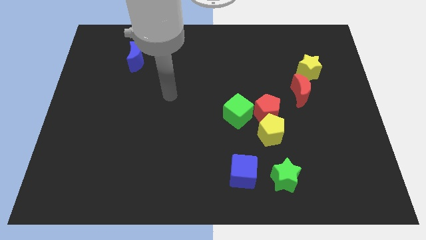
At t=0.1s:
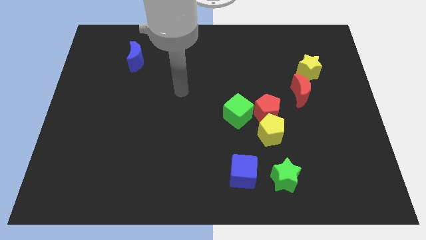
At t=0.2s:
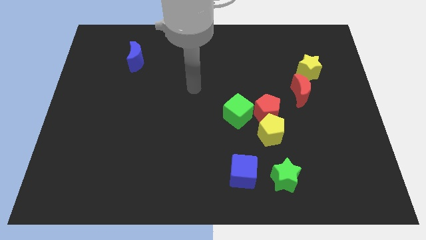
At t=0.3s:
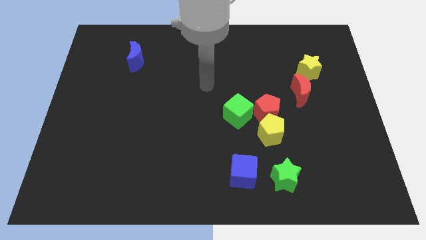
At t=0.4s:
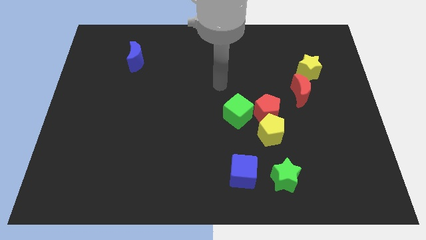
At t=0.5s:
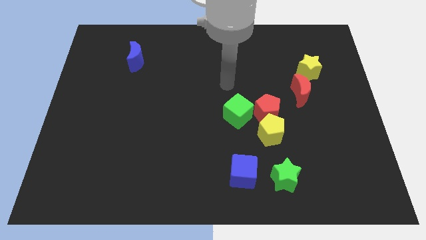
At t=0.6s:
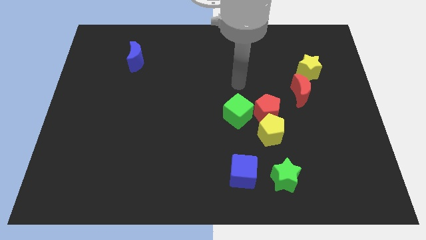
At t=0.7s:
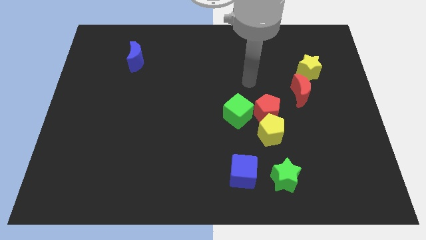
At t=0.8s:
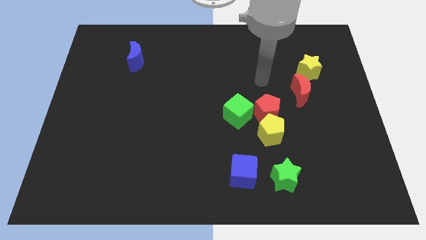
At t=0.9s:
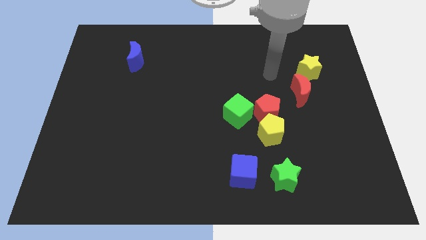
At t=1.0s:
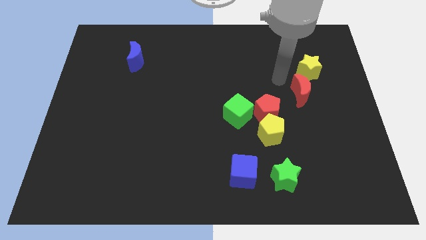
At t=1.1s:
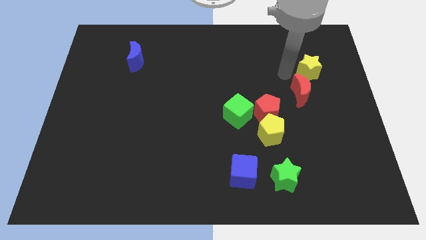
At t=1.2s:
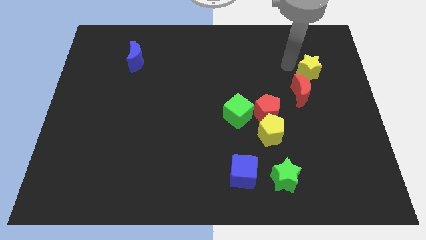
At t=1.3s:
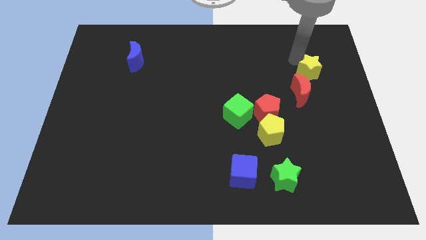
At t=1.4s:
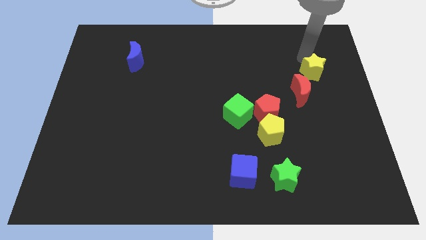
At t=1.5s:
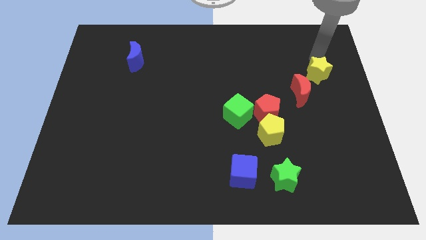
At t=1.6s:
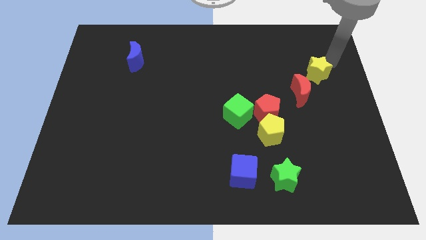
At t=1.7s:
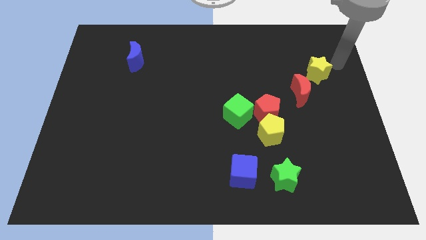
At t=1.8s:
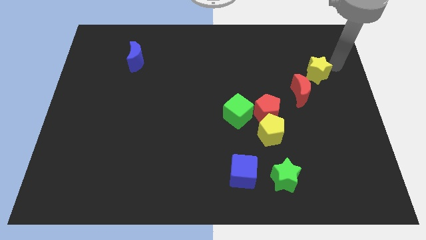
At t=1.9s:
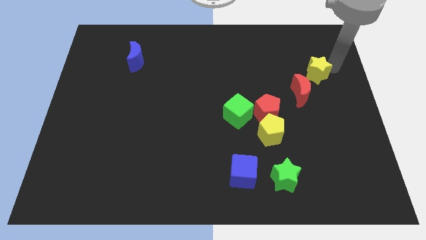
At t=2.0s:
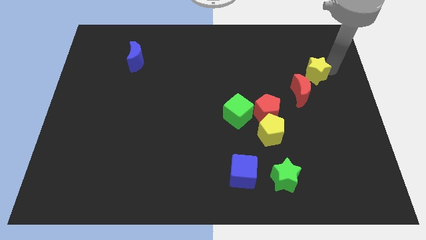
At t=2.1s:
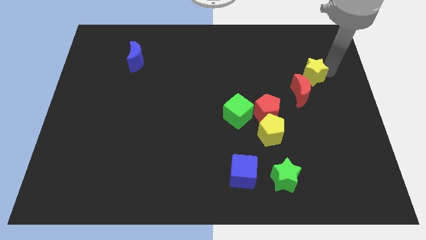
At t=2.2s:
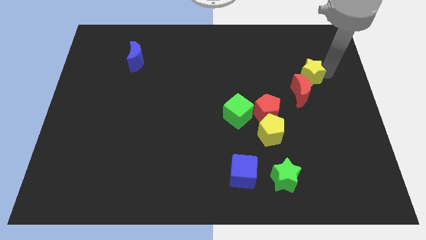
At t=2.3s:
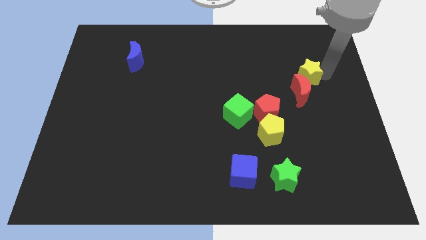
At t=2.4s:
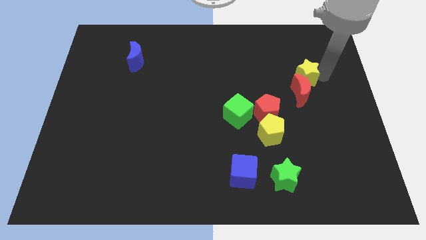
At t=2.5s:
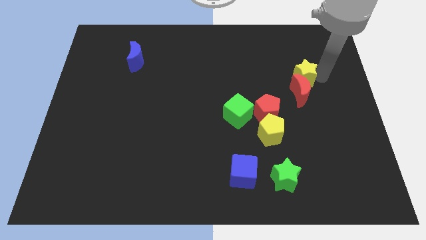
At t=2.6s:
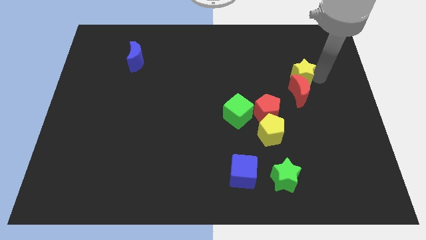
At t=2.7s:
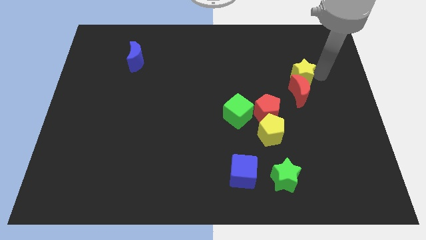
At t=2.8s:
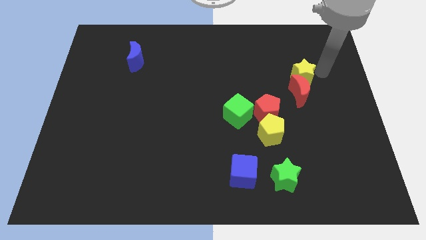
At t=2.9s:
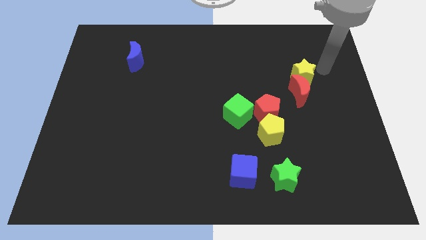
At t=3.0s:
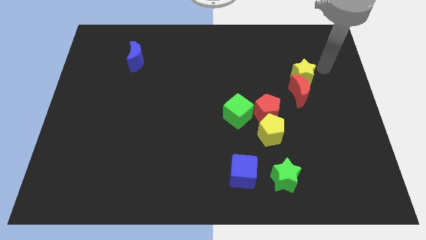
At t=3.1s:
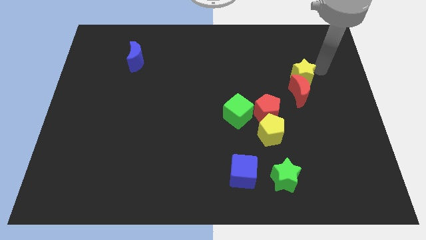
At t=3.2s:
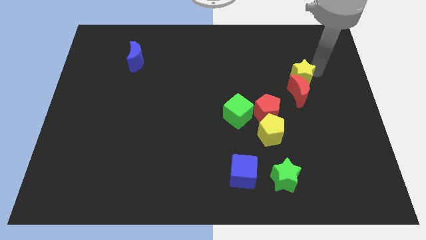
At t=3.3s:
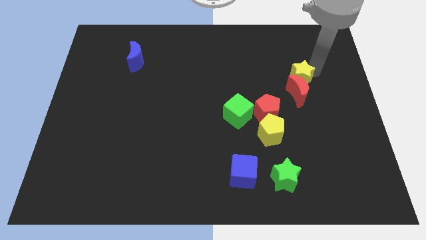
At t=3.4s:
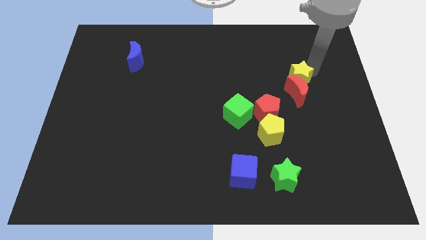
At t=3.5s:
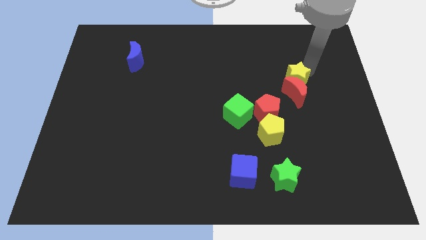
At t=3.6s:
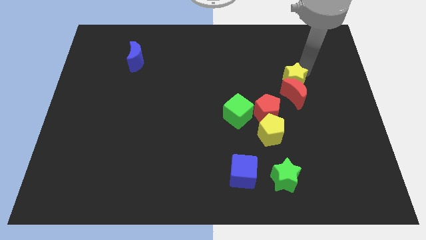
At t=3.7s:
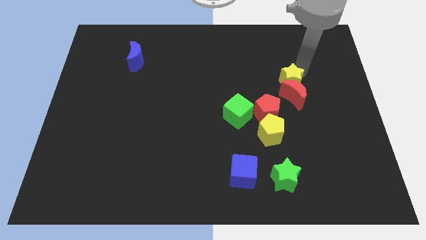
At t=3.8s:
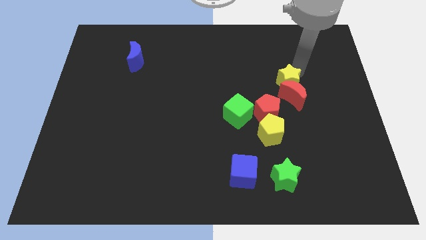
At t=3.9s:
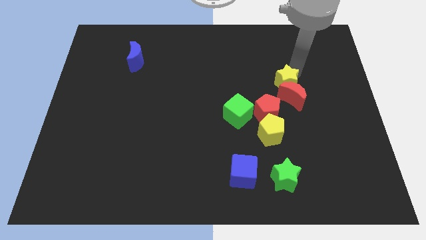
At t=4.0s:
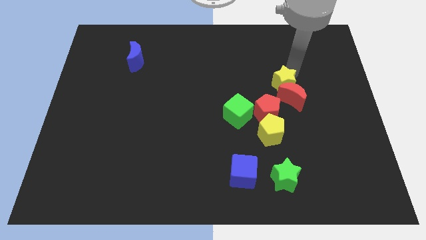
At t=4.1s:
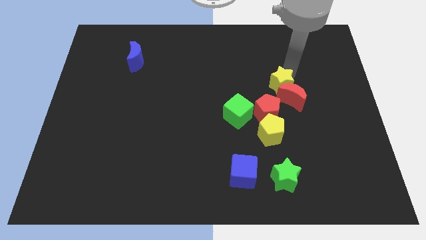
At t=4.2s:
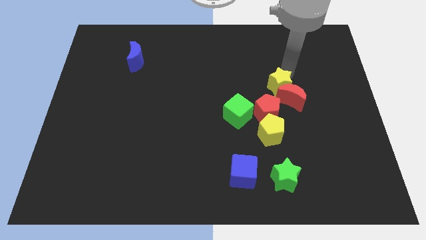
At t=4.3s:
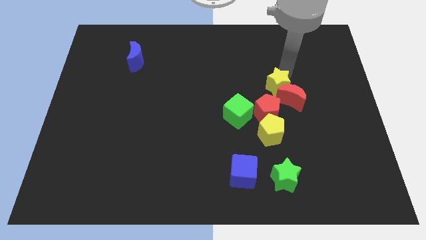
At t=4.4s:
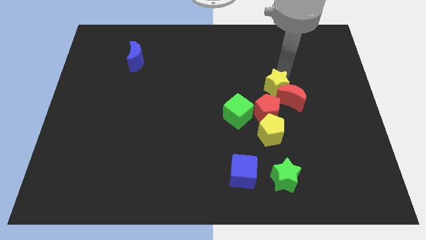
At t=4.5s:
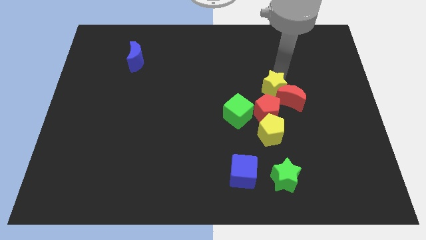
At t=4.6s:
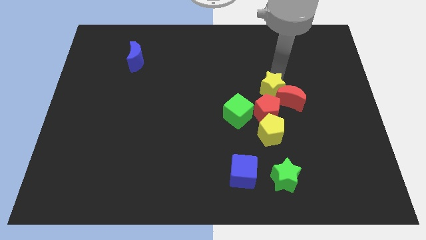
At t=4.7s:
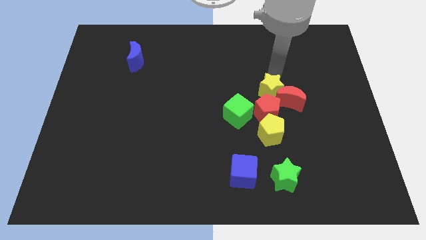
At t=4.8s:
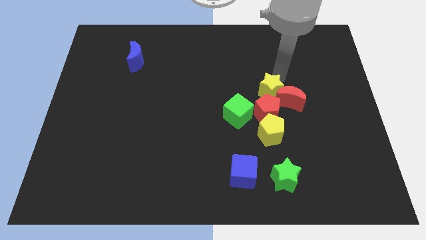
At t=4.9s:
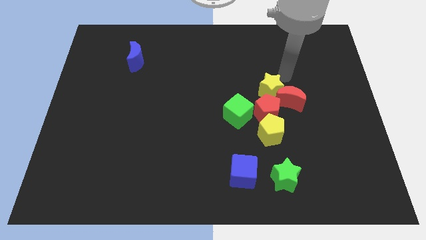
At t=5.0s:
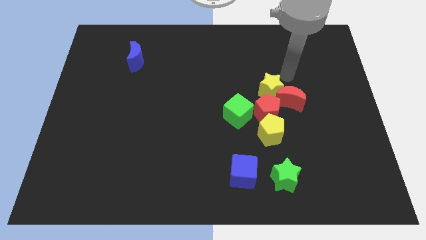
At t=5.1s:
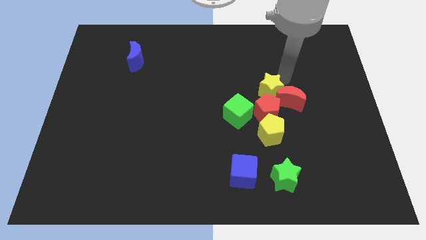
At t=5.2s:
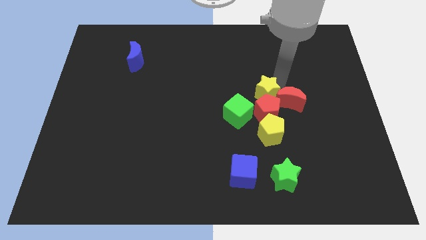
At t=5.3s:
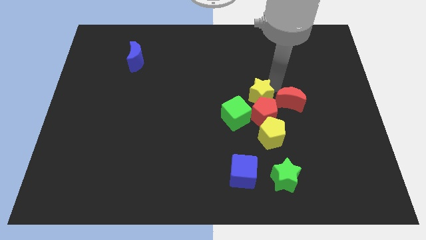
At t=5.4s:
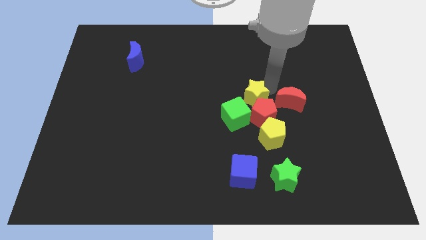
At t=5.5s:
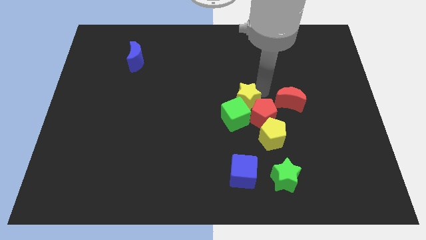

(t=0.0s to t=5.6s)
move the yellow star to the green cube
